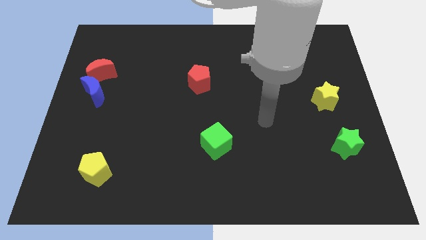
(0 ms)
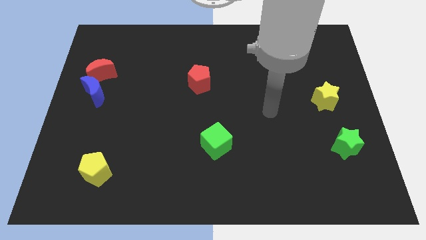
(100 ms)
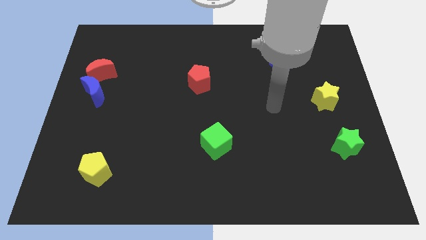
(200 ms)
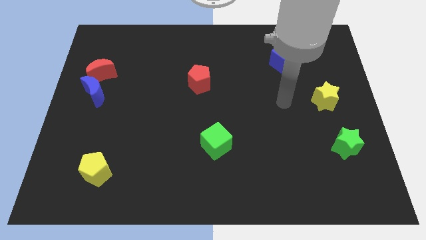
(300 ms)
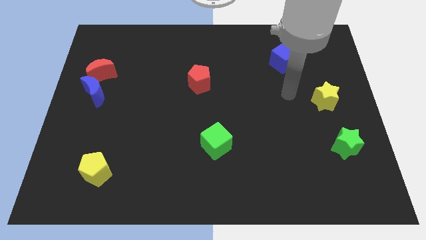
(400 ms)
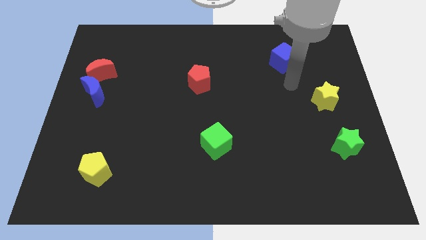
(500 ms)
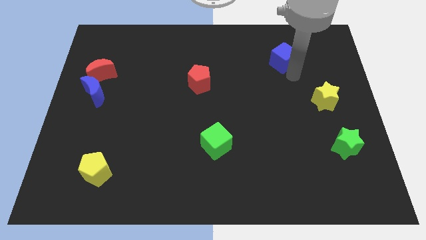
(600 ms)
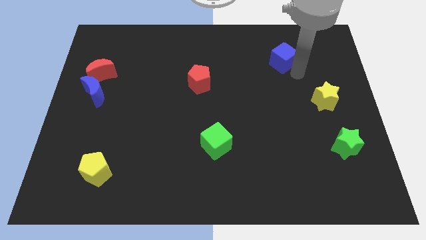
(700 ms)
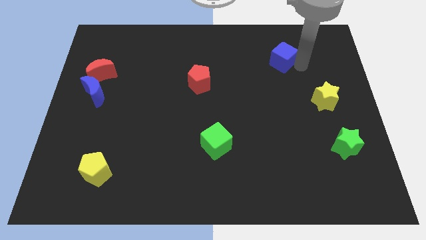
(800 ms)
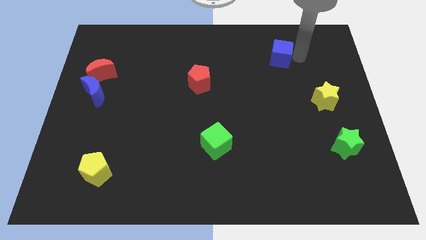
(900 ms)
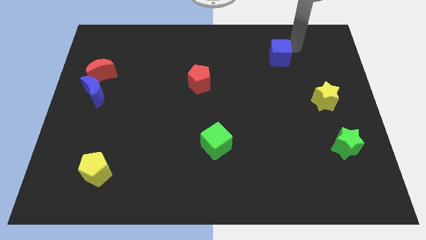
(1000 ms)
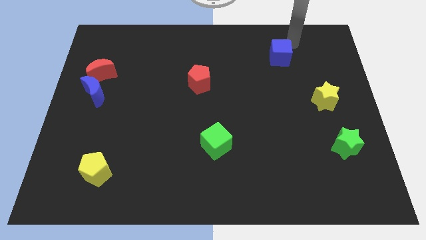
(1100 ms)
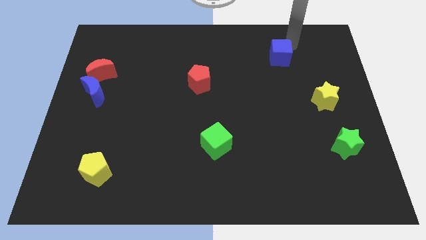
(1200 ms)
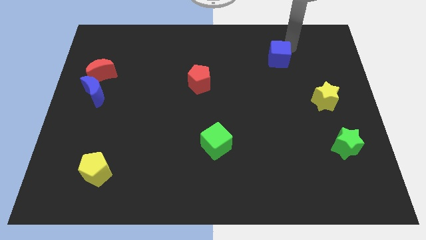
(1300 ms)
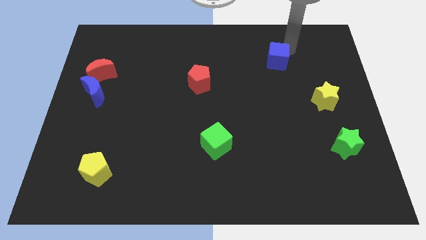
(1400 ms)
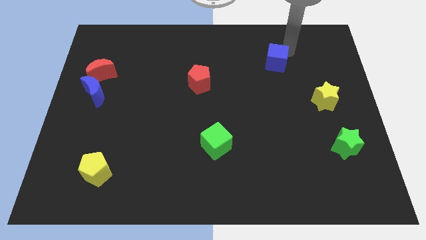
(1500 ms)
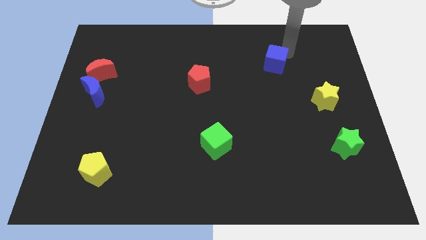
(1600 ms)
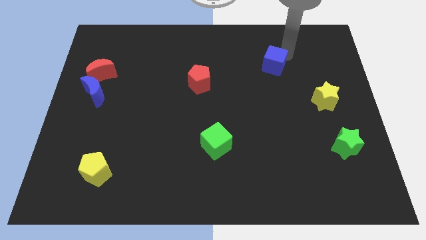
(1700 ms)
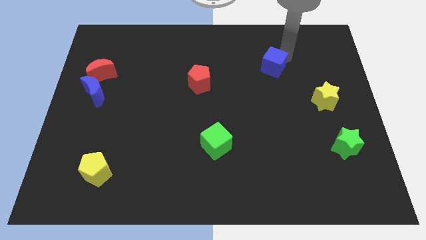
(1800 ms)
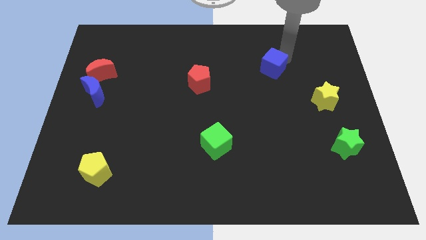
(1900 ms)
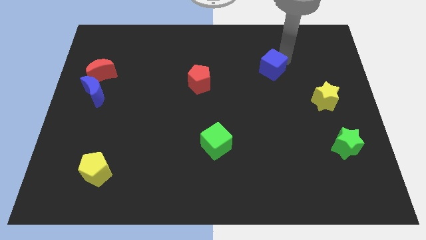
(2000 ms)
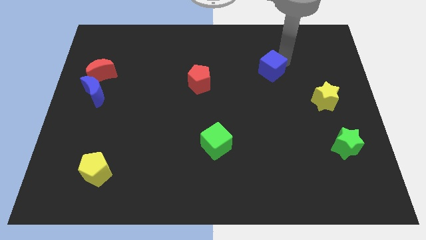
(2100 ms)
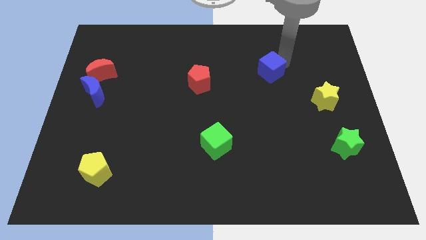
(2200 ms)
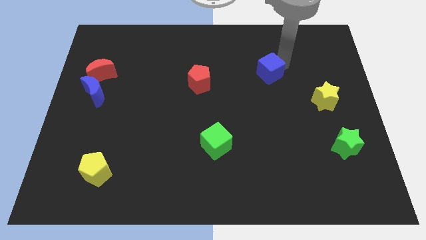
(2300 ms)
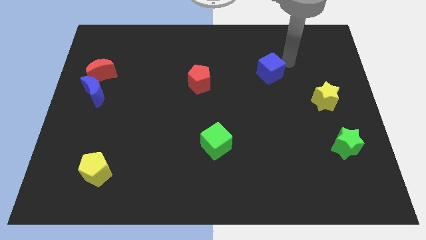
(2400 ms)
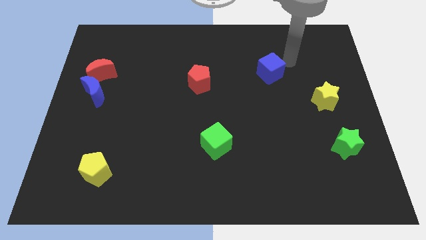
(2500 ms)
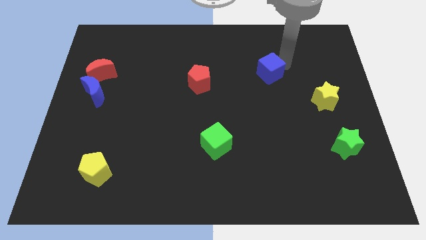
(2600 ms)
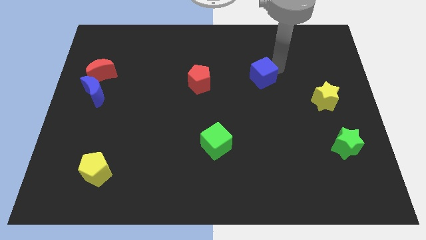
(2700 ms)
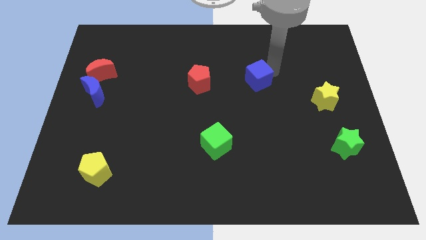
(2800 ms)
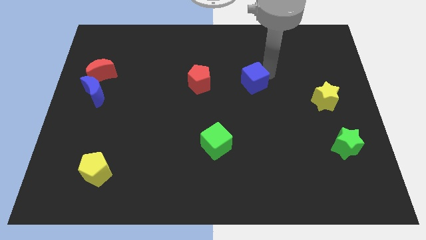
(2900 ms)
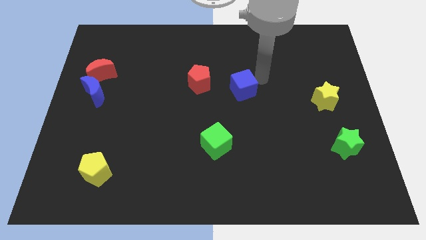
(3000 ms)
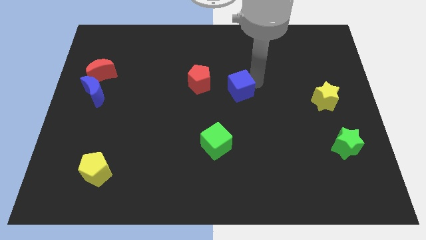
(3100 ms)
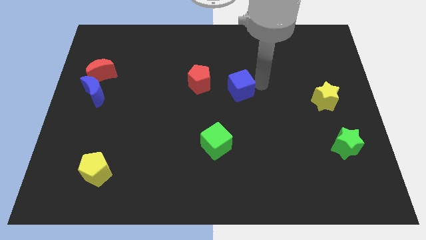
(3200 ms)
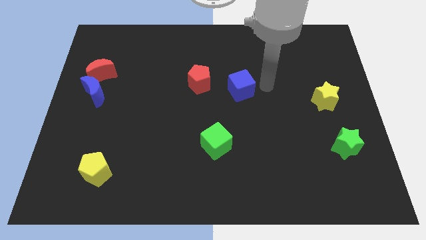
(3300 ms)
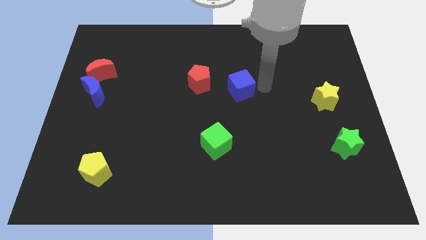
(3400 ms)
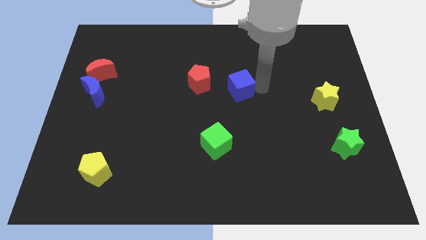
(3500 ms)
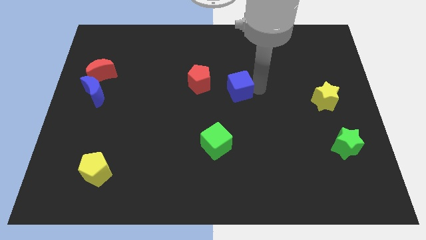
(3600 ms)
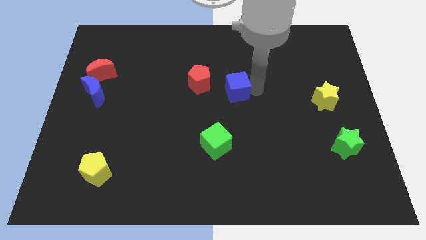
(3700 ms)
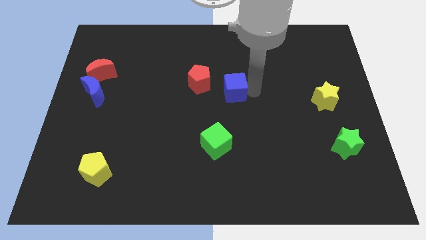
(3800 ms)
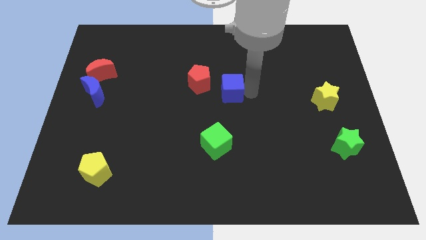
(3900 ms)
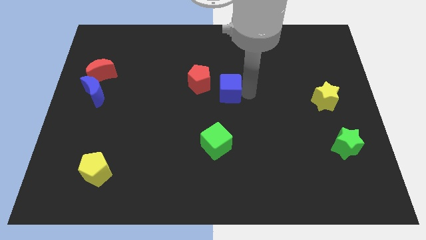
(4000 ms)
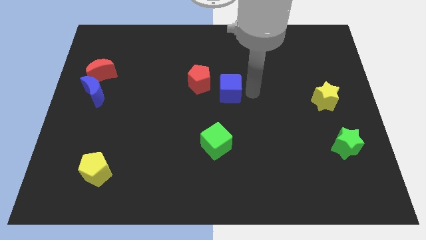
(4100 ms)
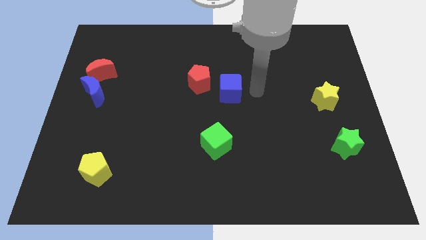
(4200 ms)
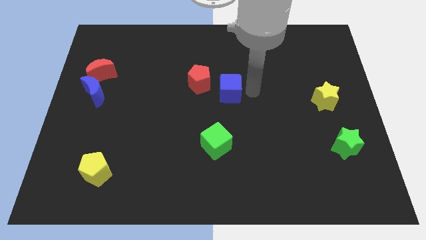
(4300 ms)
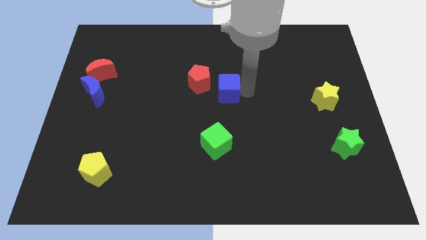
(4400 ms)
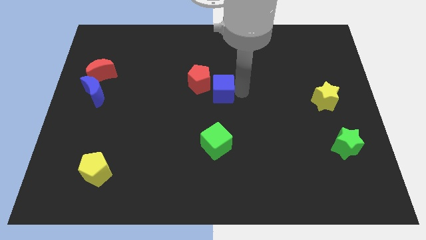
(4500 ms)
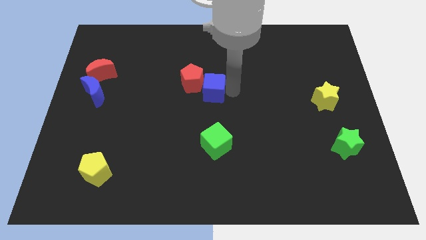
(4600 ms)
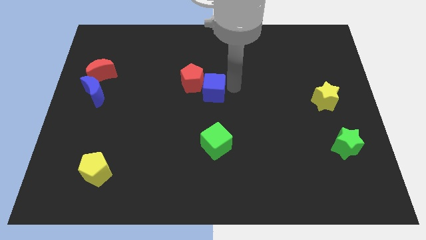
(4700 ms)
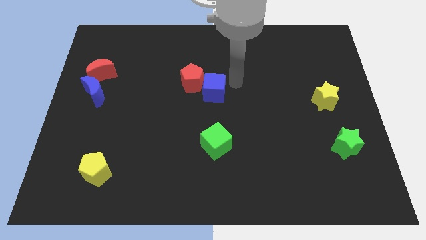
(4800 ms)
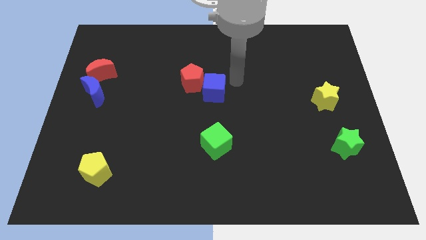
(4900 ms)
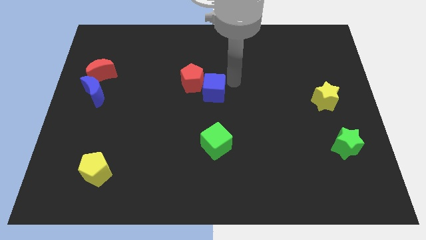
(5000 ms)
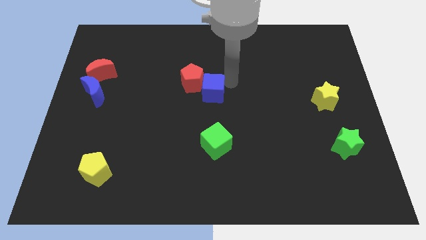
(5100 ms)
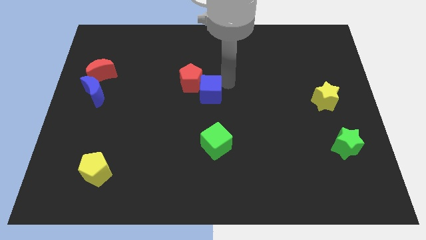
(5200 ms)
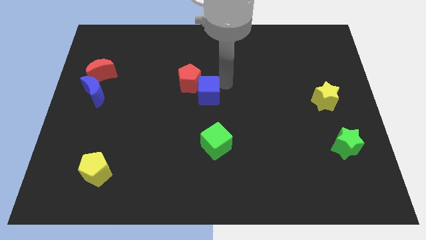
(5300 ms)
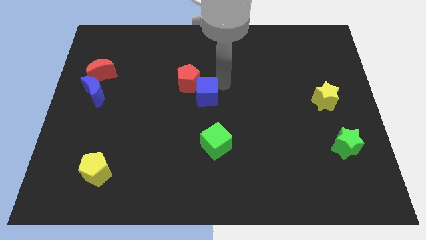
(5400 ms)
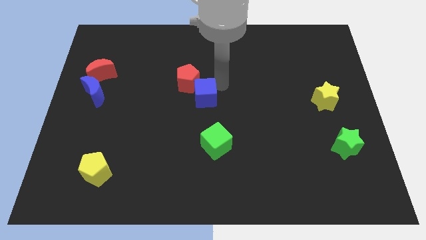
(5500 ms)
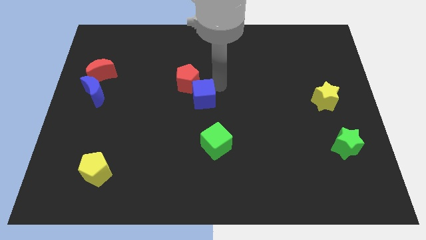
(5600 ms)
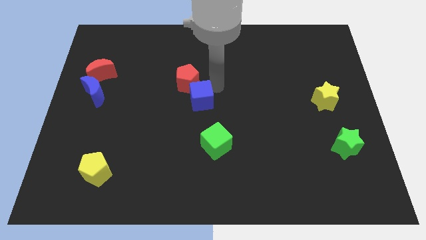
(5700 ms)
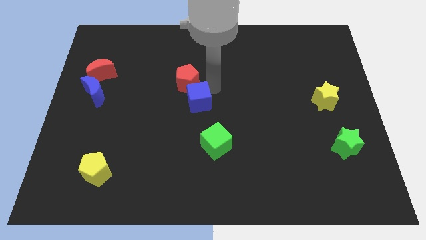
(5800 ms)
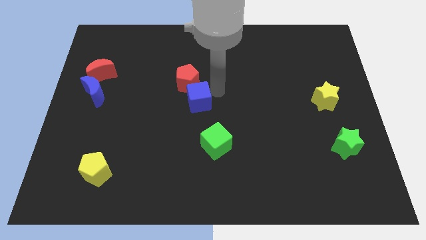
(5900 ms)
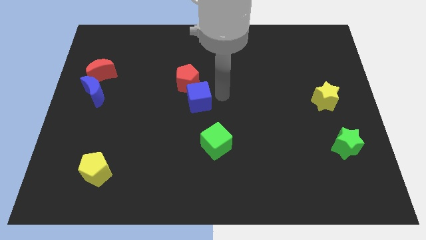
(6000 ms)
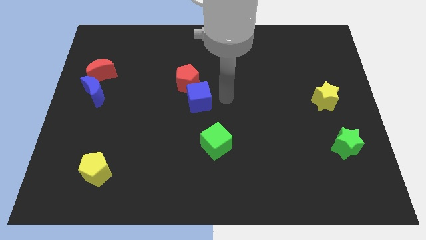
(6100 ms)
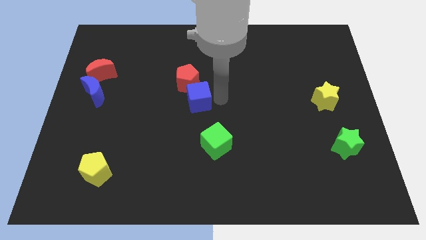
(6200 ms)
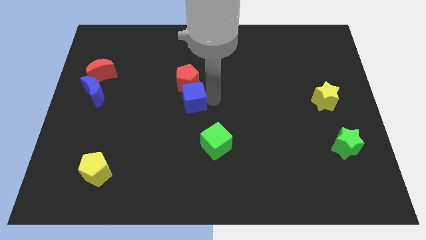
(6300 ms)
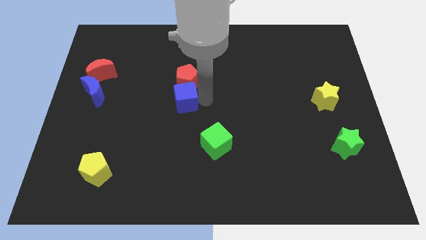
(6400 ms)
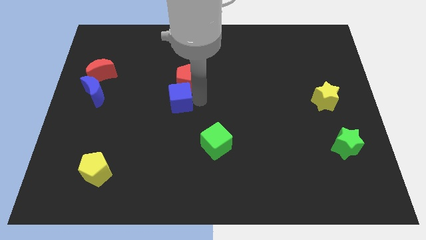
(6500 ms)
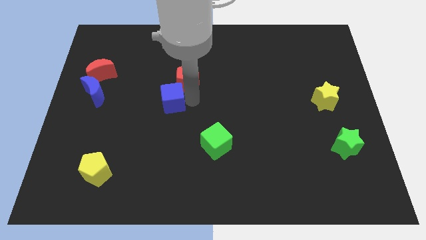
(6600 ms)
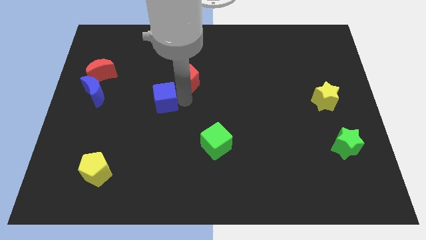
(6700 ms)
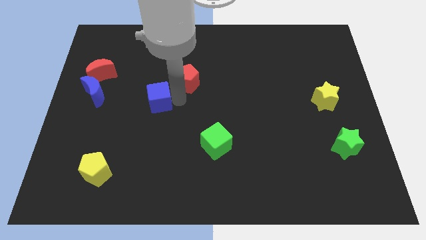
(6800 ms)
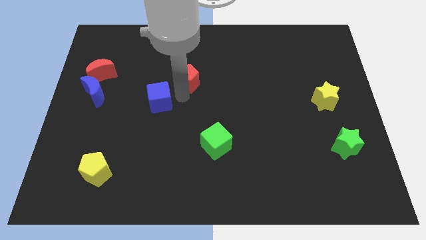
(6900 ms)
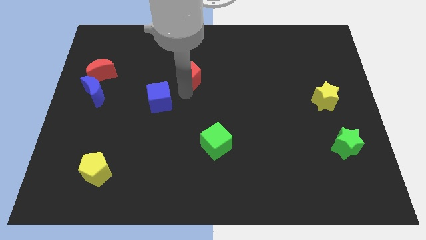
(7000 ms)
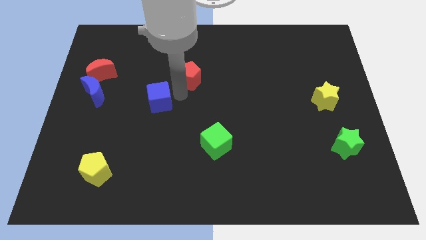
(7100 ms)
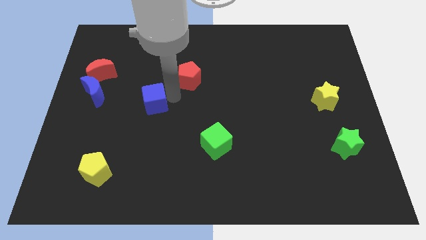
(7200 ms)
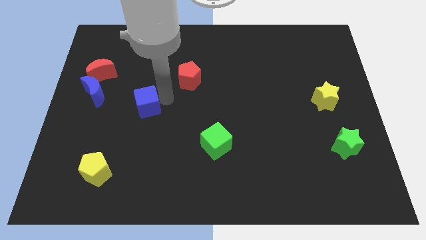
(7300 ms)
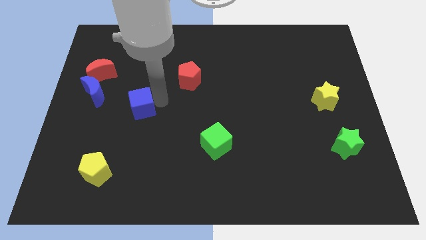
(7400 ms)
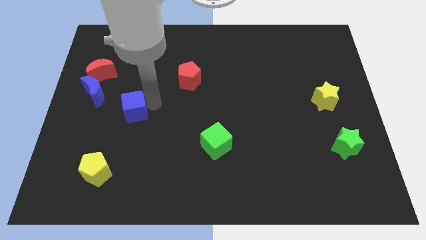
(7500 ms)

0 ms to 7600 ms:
move the blue cube to the bottom right side of the blue moon
